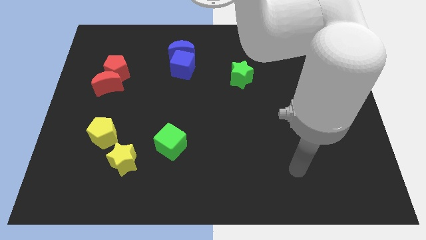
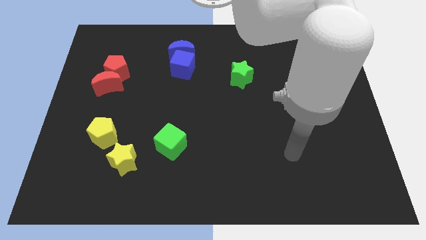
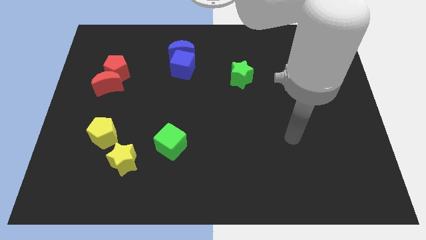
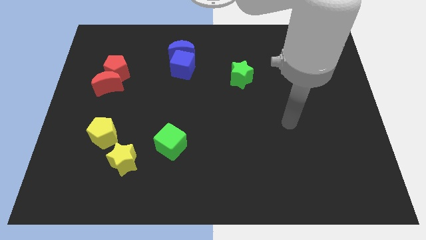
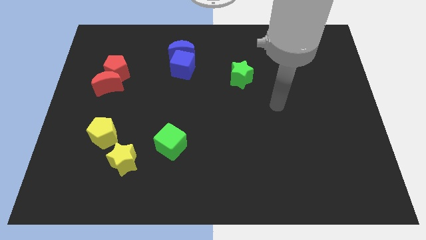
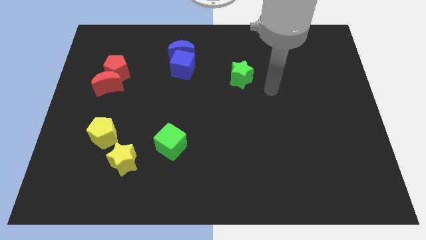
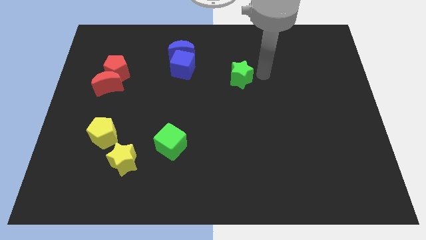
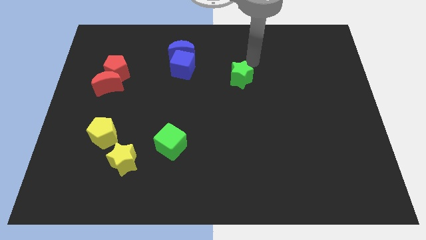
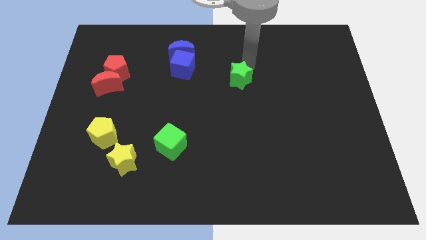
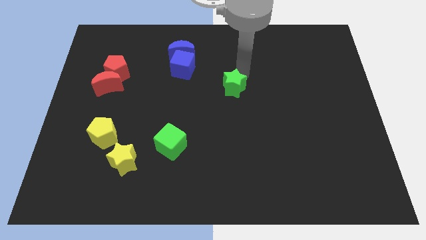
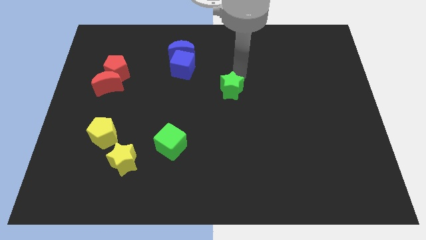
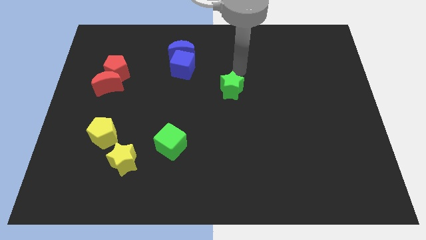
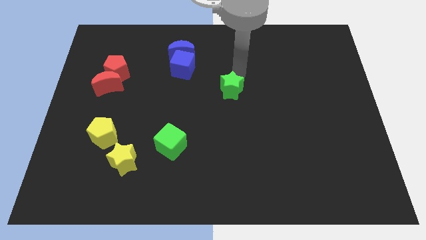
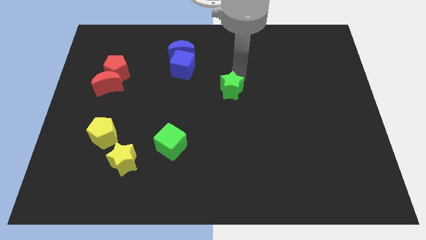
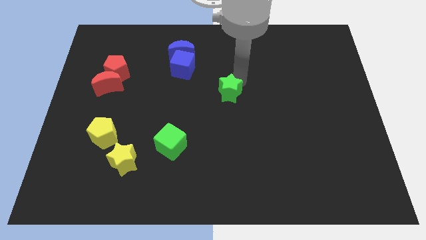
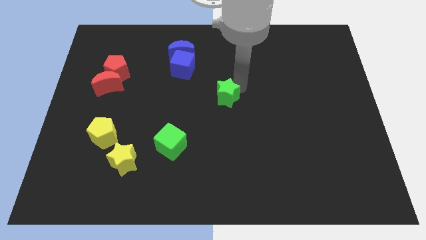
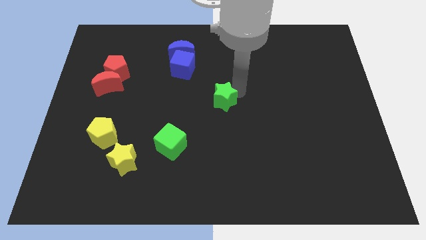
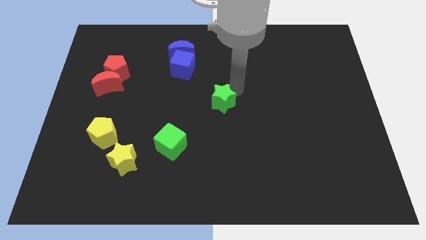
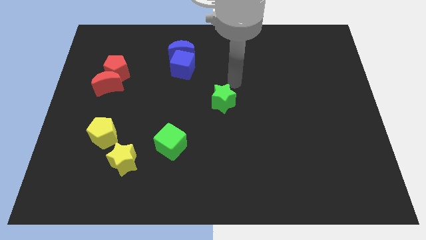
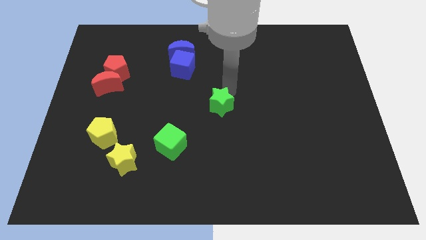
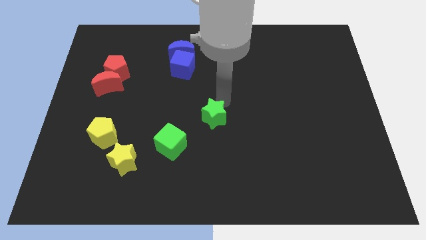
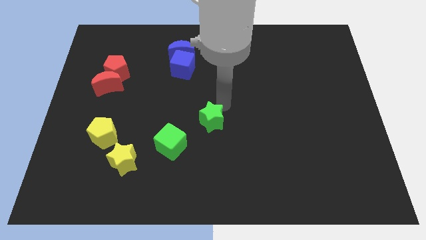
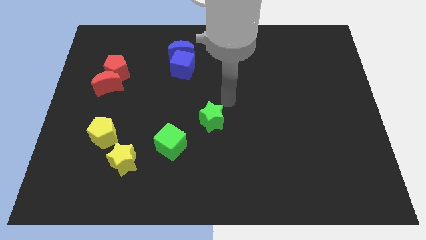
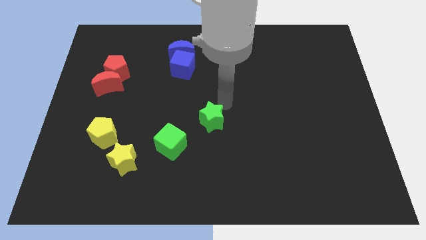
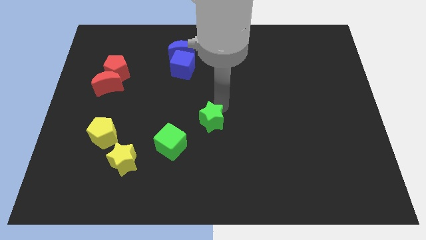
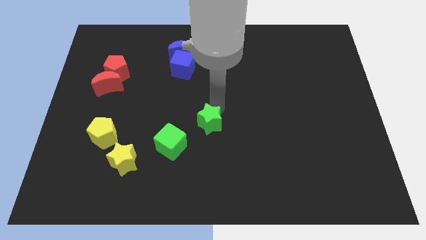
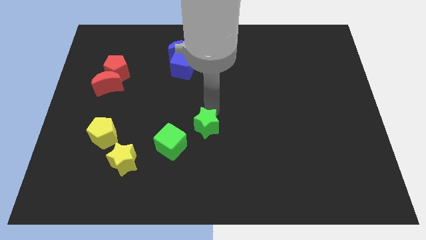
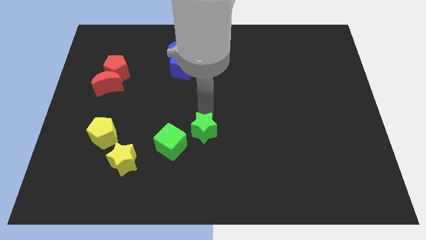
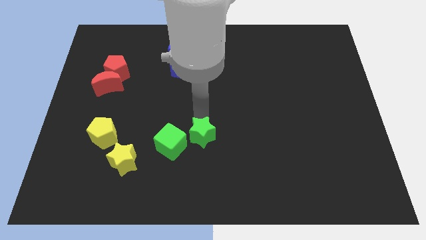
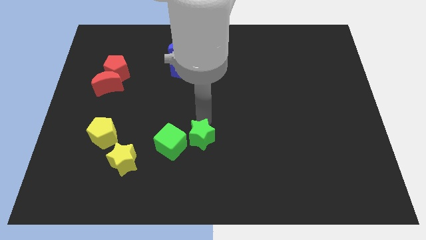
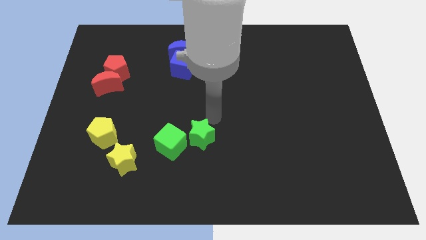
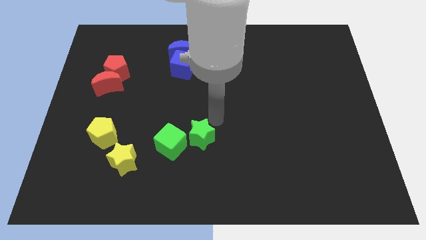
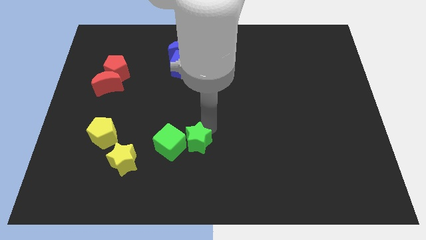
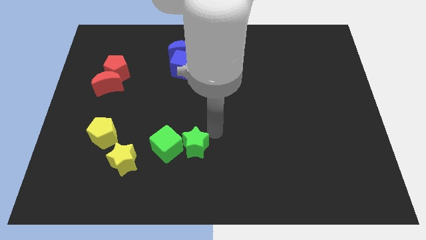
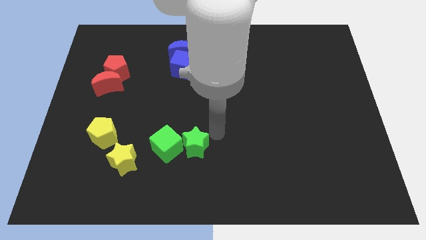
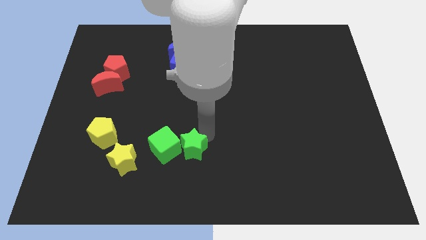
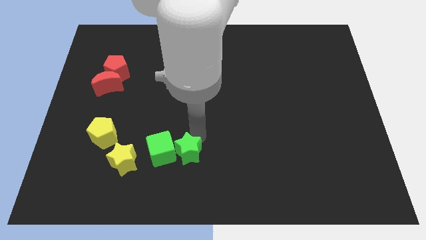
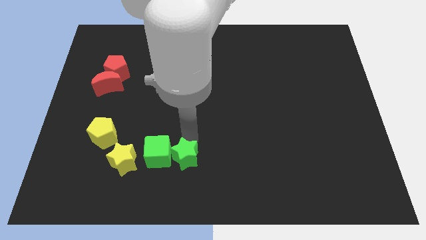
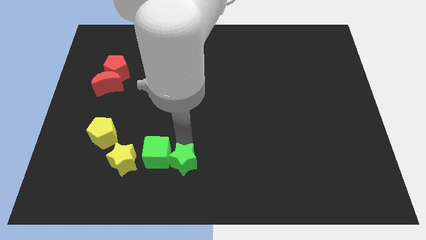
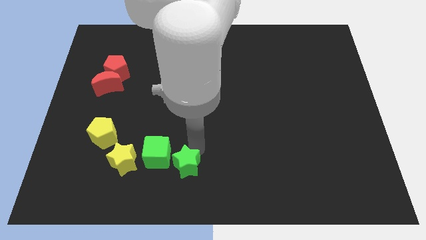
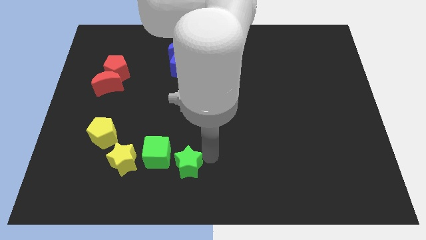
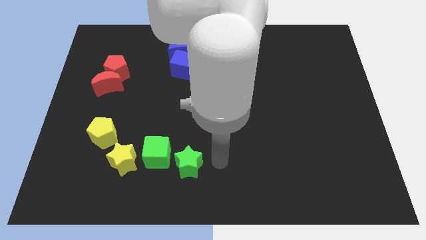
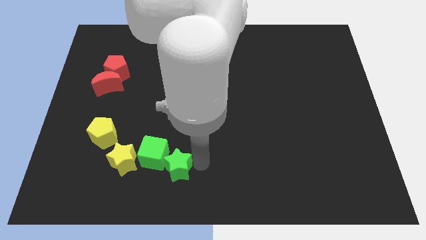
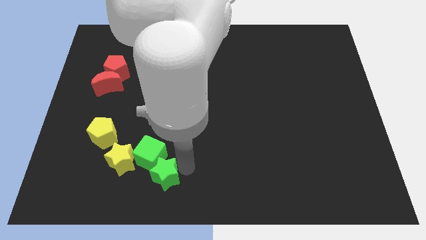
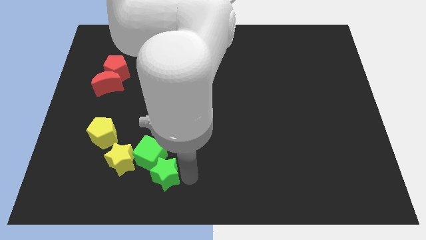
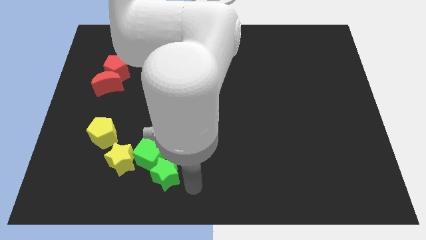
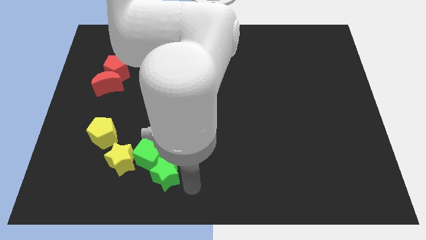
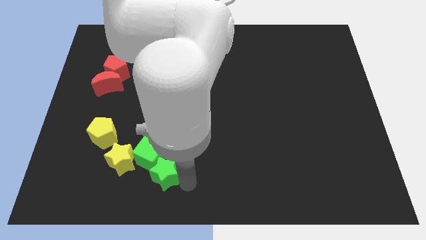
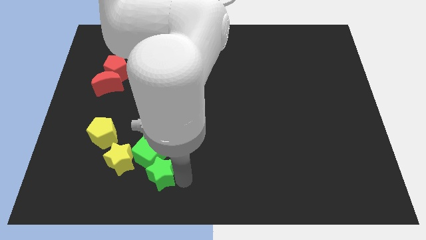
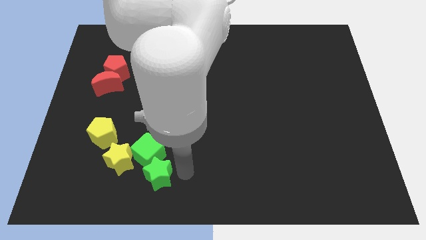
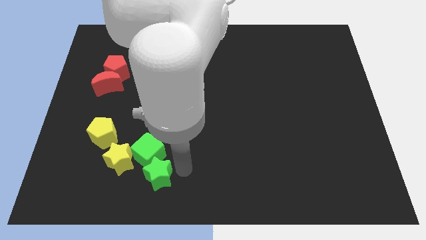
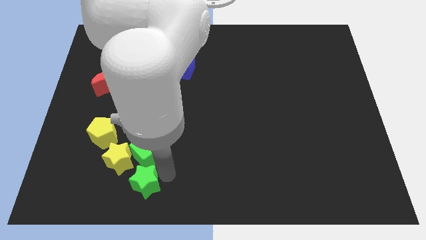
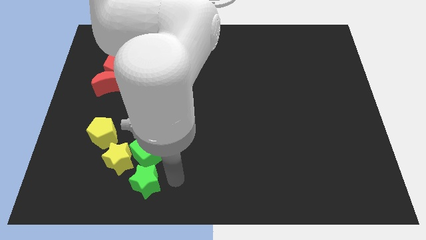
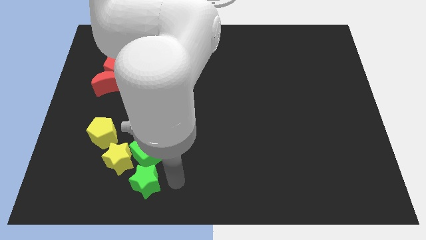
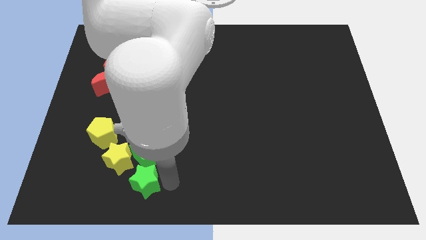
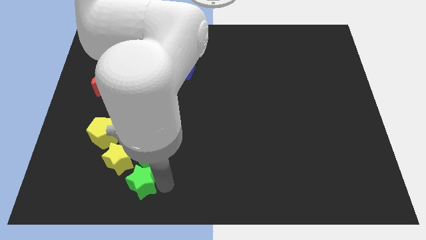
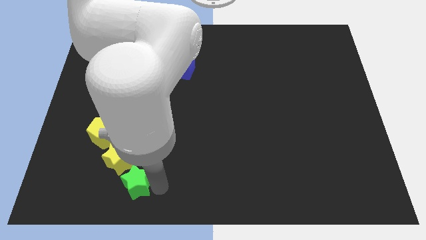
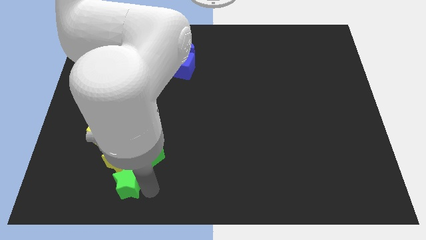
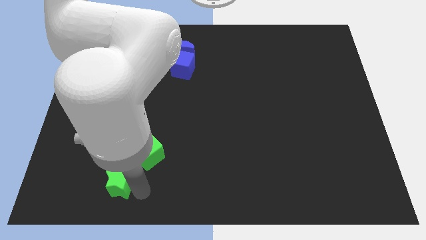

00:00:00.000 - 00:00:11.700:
move the green star to the bottom left of the yellow star

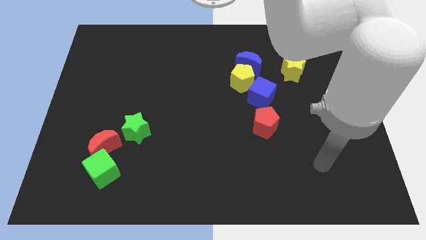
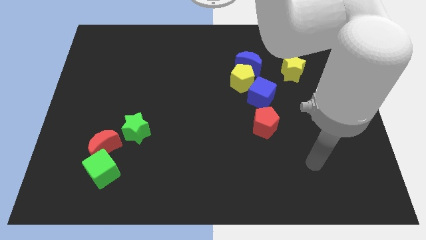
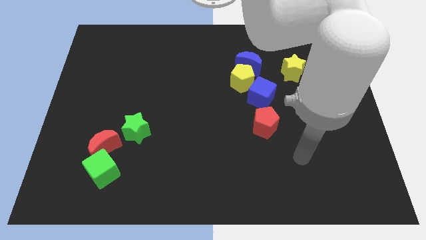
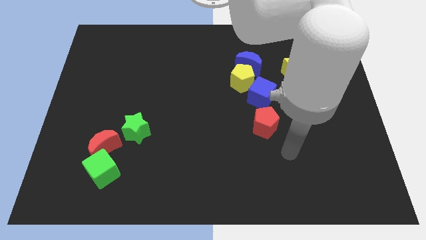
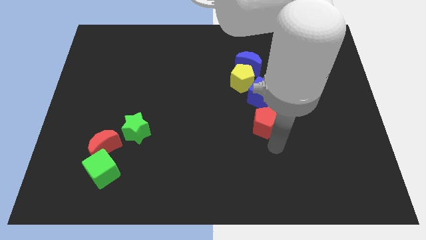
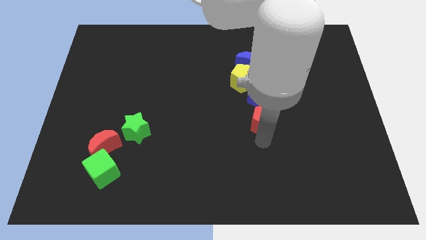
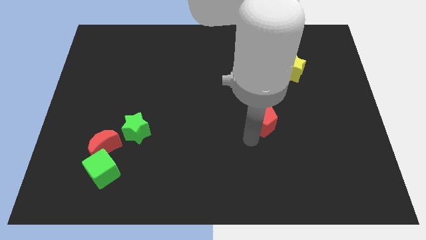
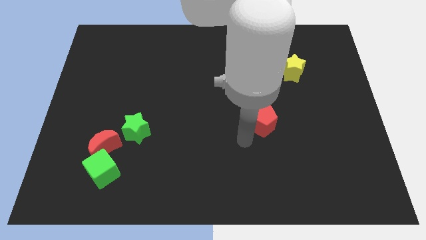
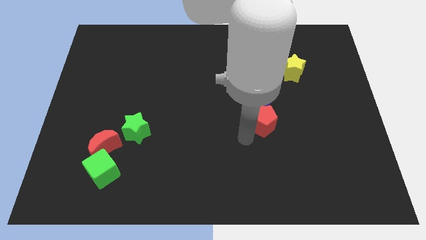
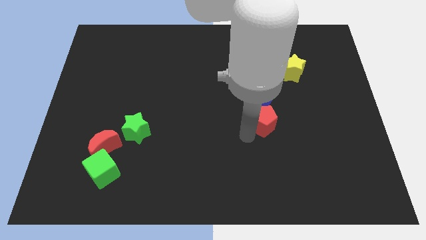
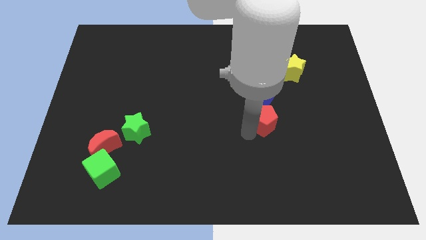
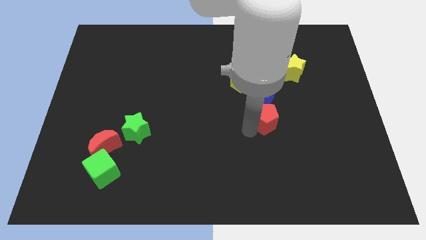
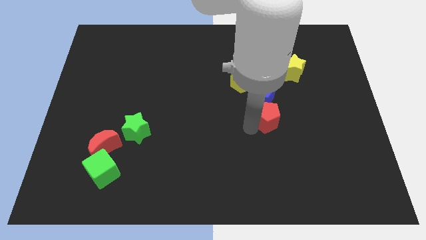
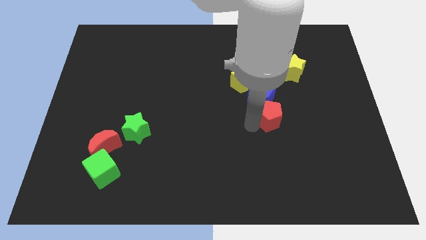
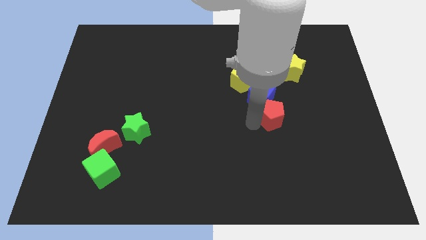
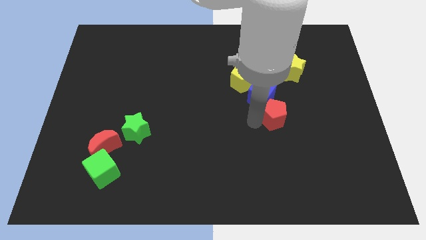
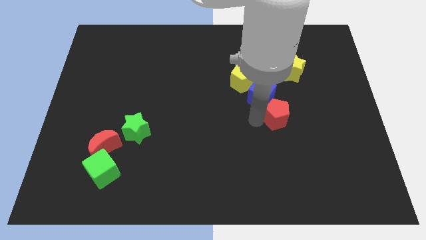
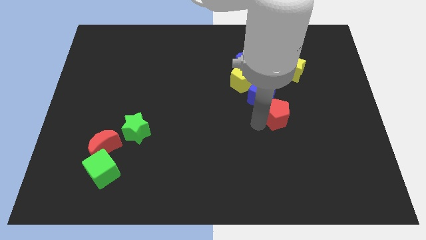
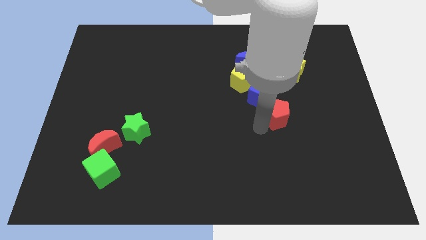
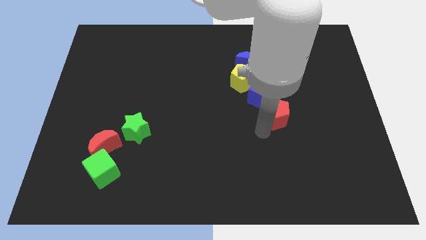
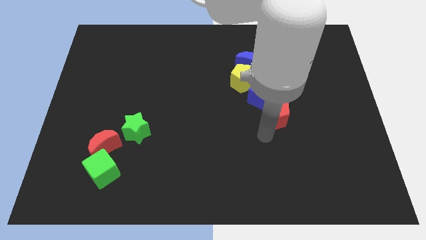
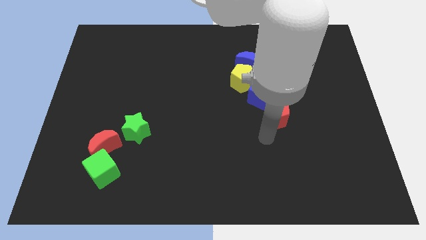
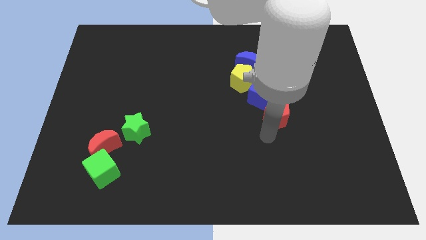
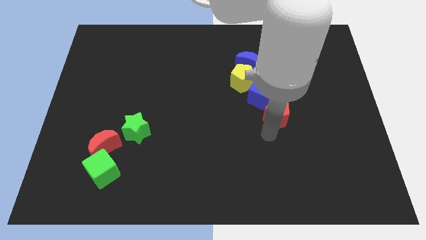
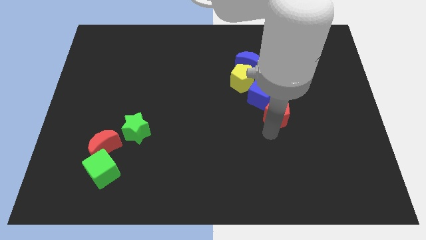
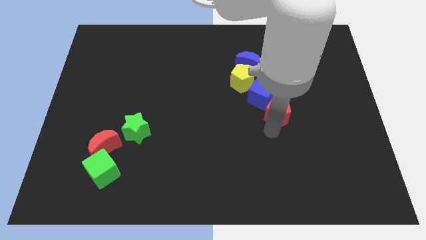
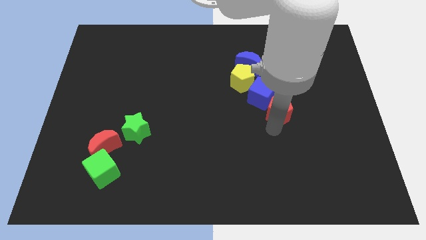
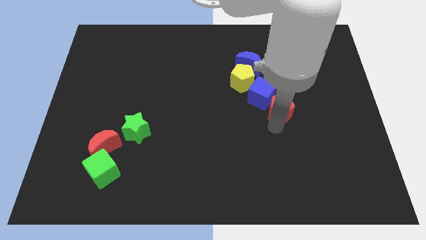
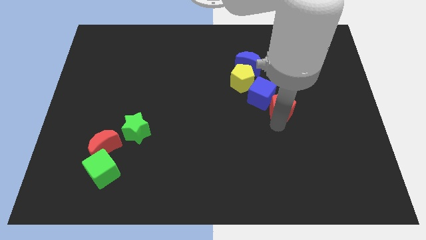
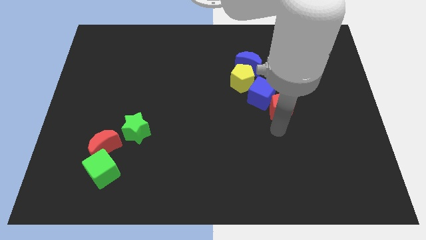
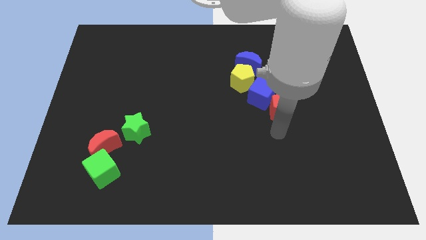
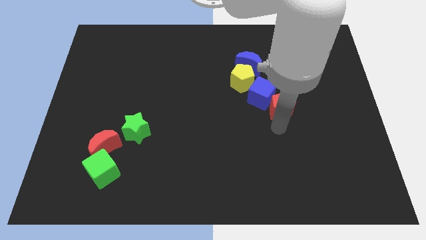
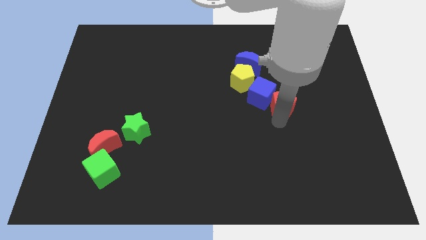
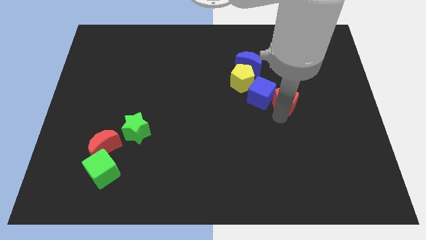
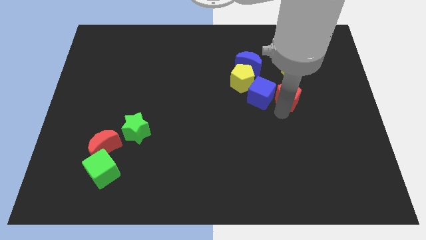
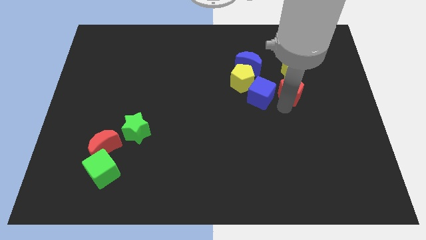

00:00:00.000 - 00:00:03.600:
slide the red pentagon to the right side of the yellow pentagon
